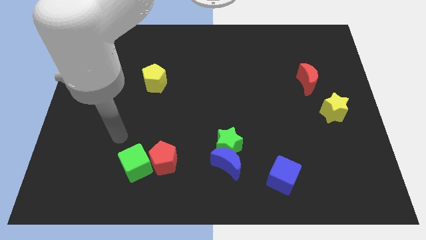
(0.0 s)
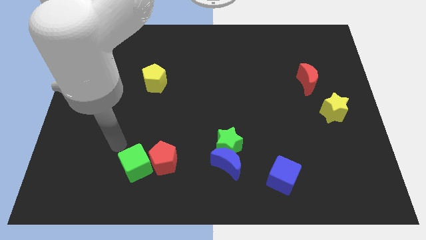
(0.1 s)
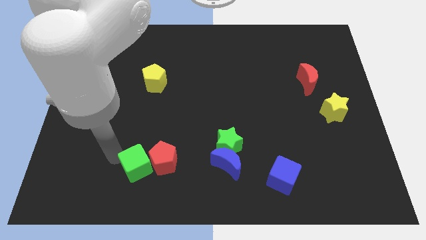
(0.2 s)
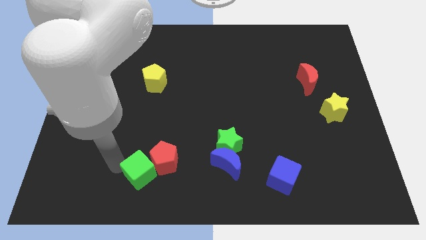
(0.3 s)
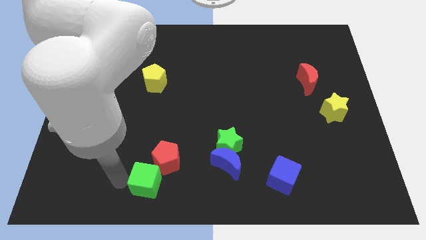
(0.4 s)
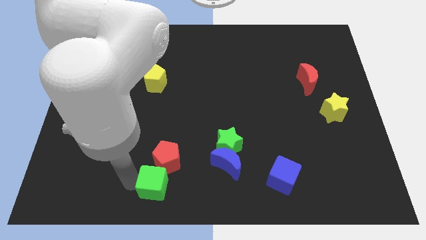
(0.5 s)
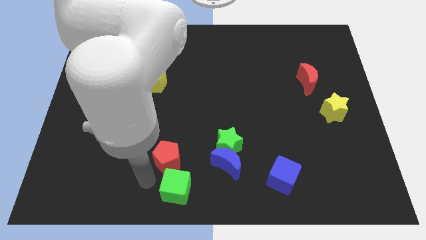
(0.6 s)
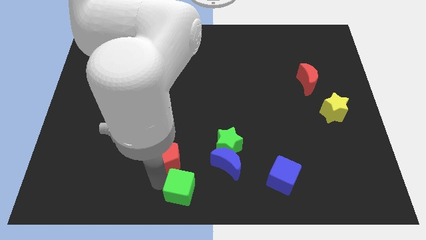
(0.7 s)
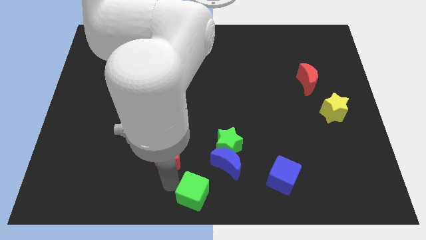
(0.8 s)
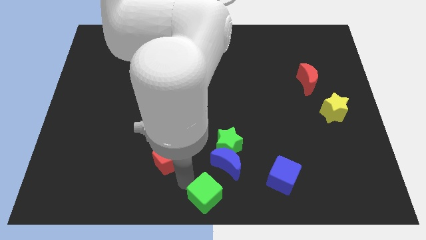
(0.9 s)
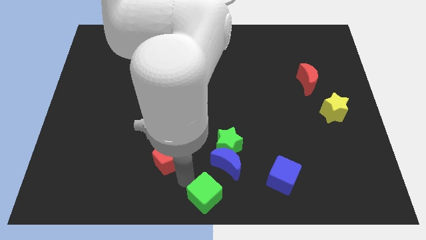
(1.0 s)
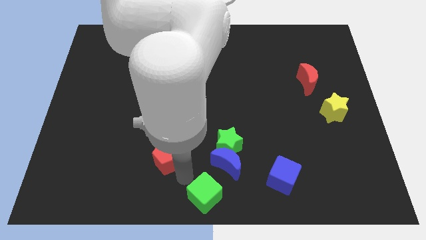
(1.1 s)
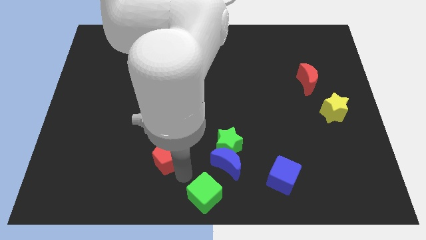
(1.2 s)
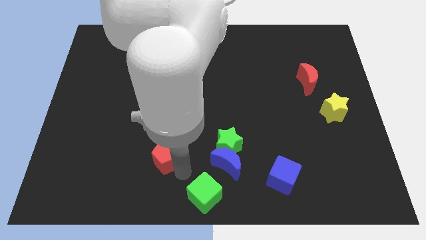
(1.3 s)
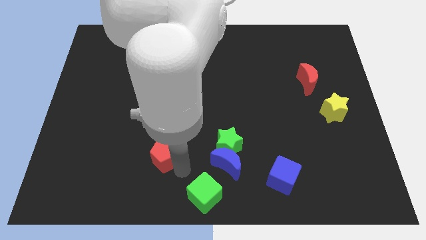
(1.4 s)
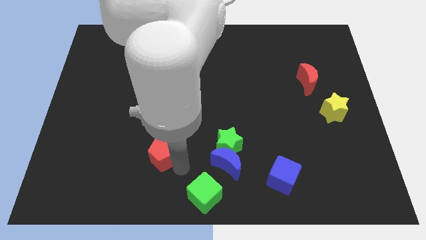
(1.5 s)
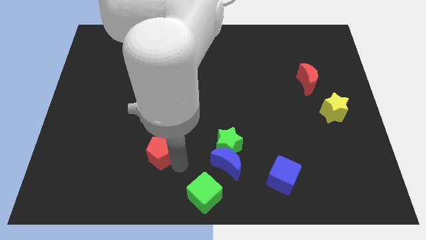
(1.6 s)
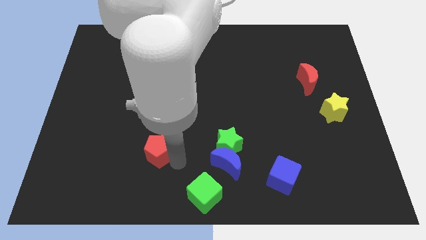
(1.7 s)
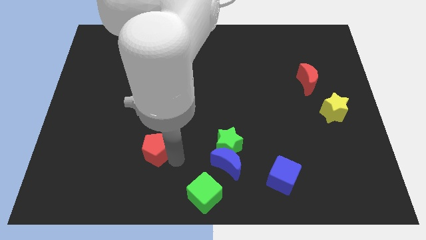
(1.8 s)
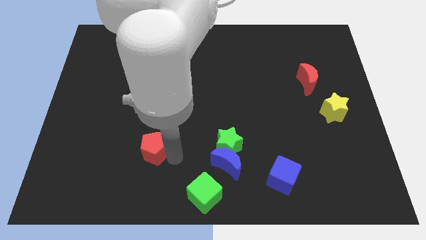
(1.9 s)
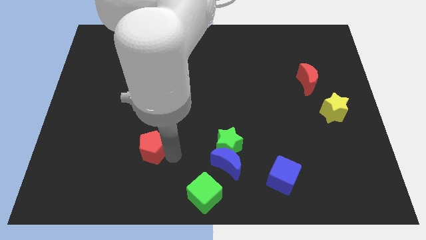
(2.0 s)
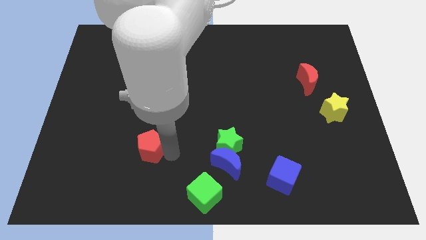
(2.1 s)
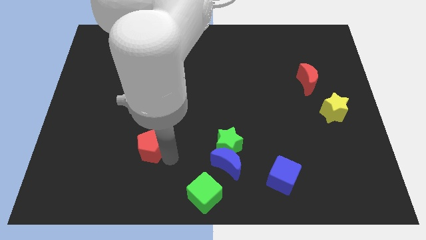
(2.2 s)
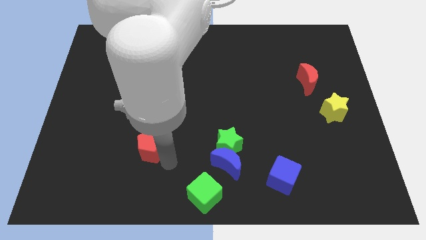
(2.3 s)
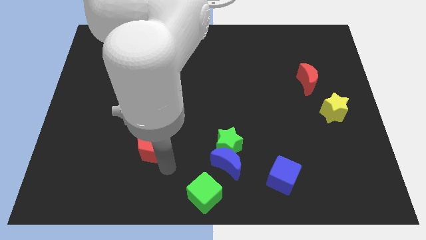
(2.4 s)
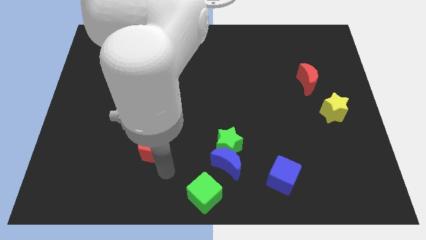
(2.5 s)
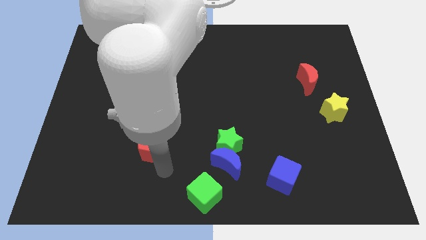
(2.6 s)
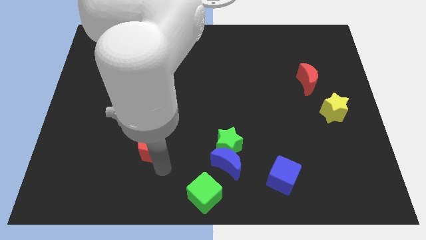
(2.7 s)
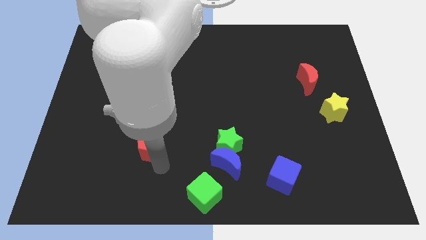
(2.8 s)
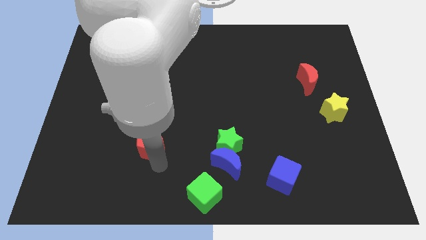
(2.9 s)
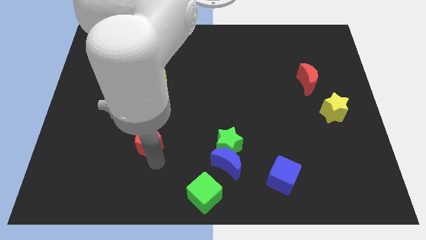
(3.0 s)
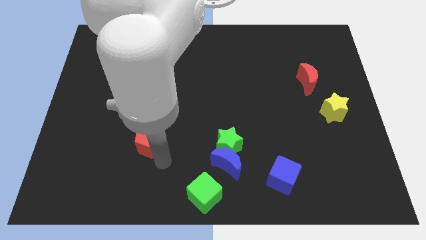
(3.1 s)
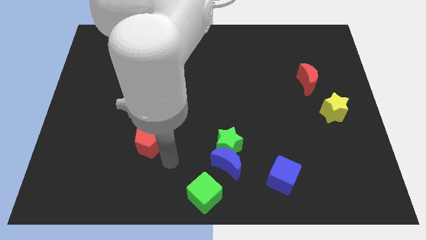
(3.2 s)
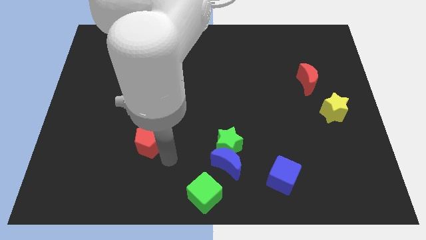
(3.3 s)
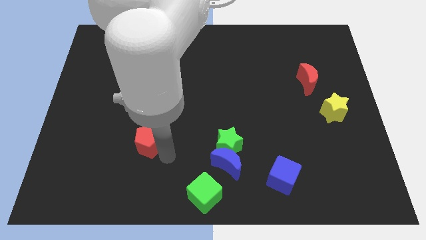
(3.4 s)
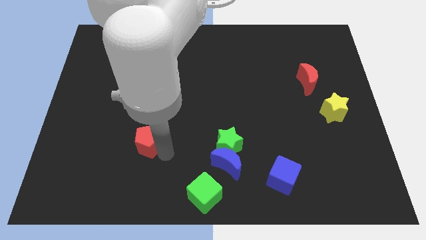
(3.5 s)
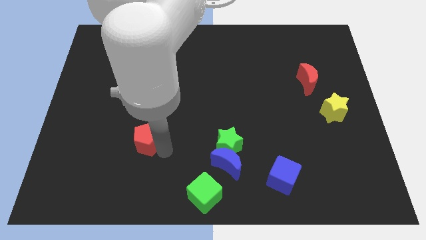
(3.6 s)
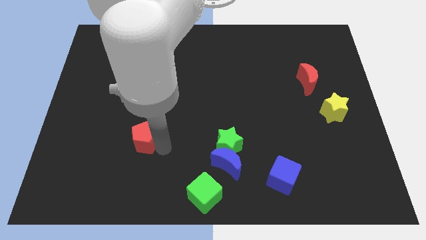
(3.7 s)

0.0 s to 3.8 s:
slide the red pentagon a little diagonally upwards and to the left

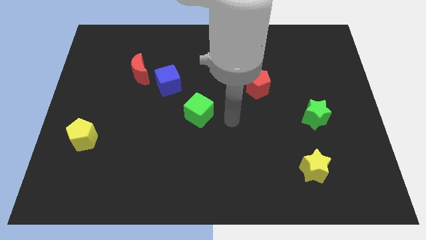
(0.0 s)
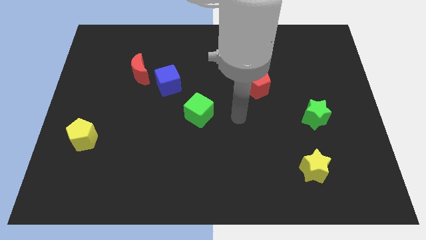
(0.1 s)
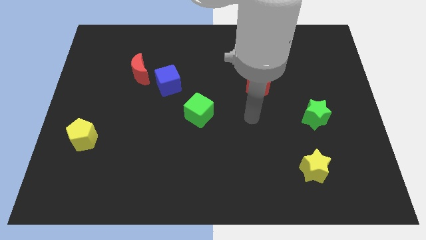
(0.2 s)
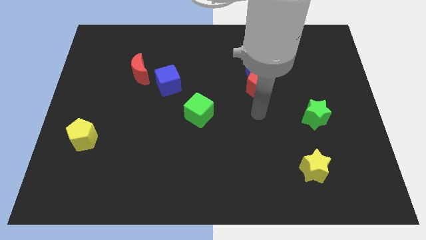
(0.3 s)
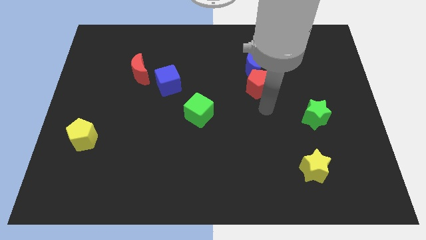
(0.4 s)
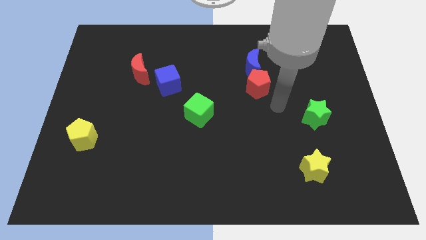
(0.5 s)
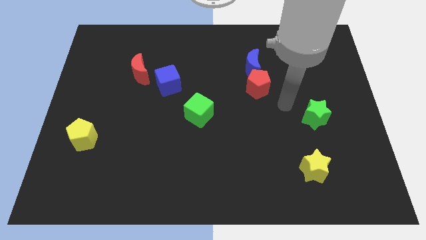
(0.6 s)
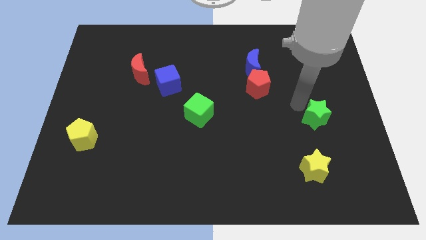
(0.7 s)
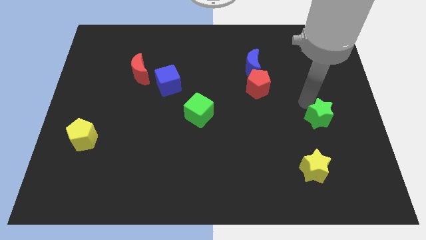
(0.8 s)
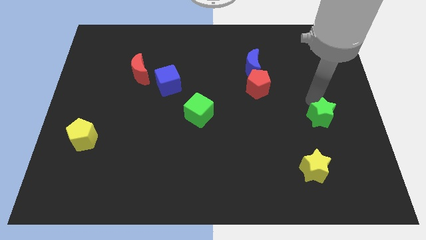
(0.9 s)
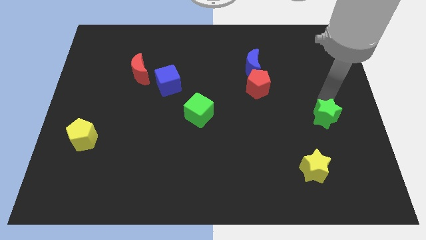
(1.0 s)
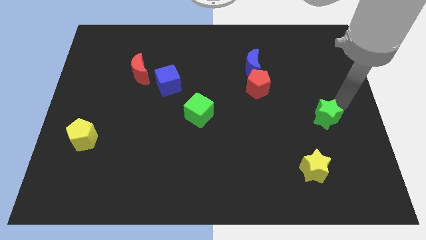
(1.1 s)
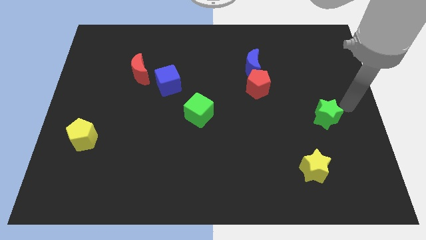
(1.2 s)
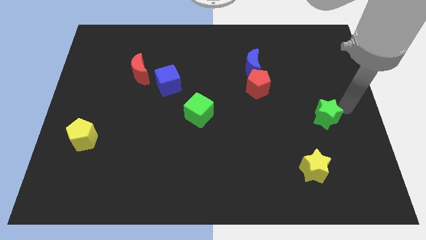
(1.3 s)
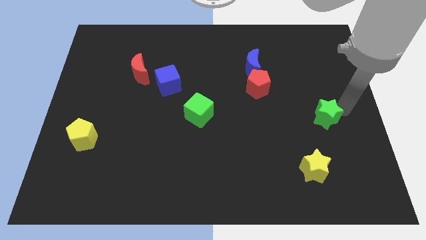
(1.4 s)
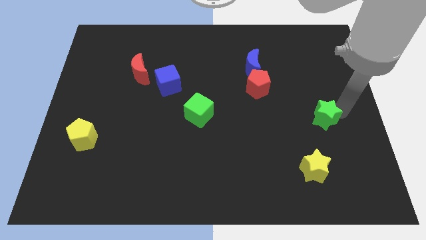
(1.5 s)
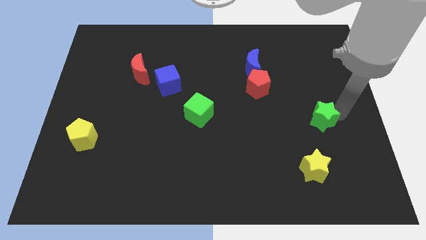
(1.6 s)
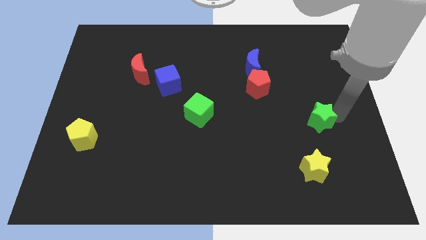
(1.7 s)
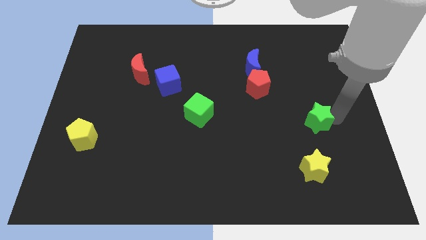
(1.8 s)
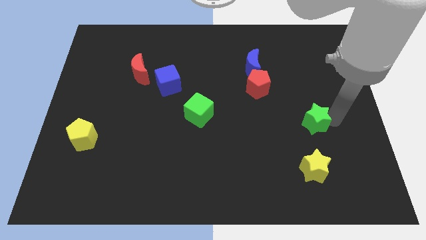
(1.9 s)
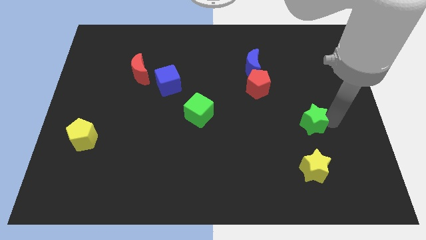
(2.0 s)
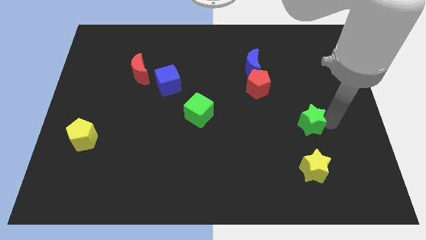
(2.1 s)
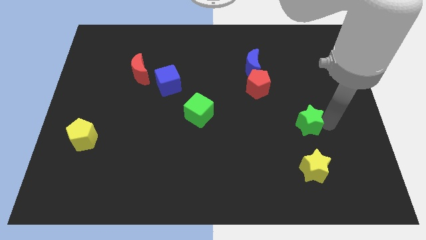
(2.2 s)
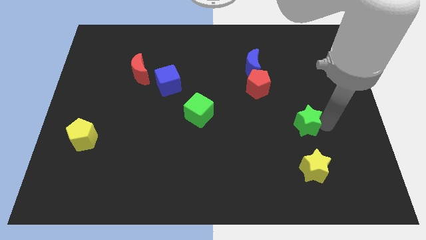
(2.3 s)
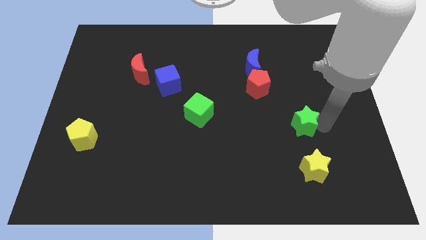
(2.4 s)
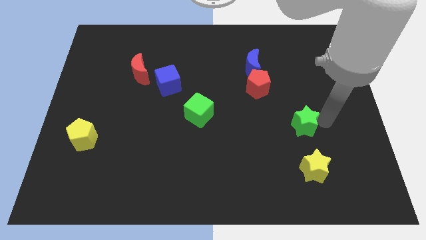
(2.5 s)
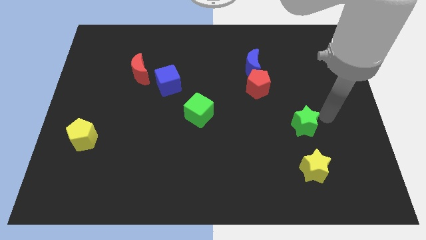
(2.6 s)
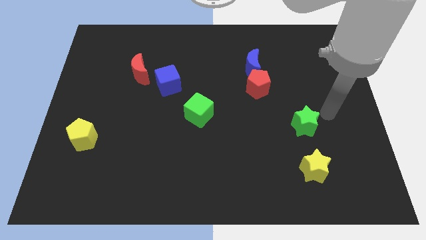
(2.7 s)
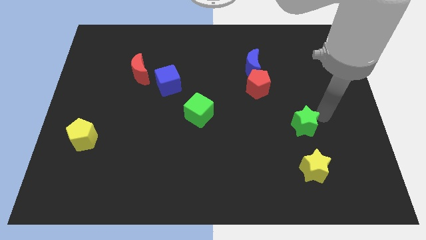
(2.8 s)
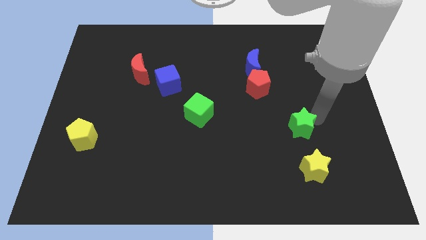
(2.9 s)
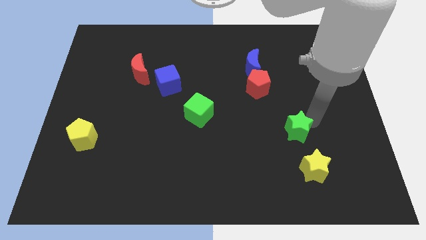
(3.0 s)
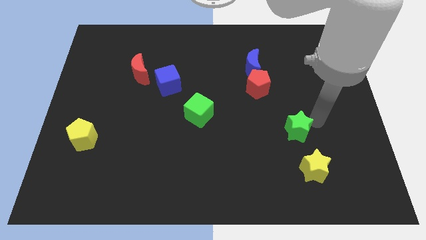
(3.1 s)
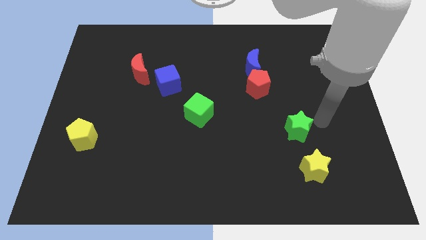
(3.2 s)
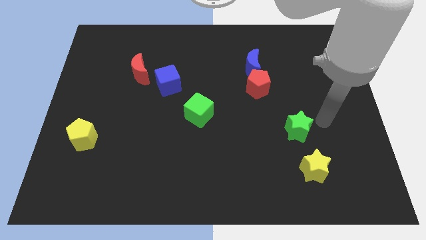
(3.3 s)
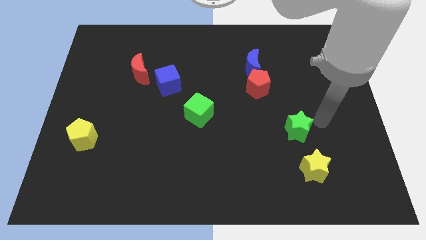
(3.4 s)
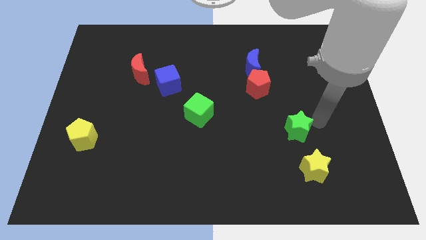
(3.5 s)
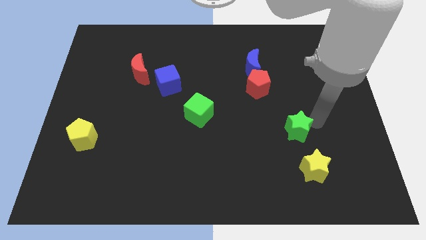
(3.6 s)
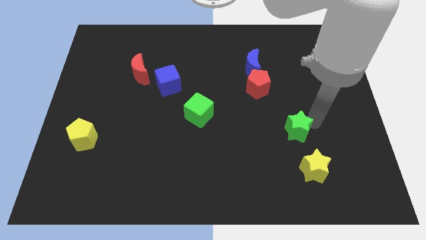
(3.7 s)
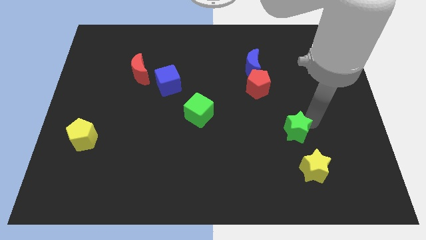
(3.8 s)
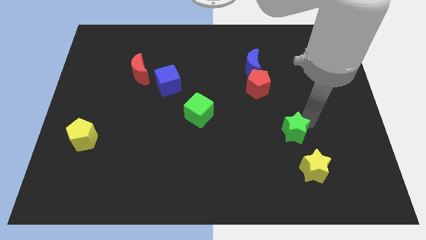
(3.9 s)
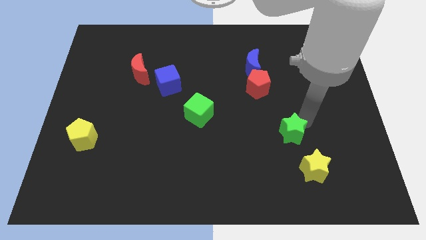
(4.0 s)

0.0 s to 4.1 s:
push the green star downwards and to the left a bit
